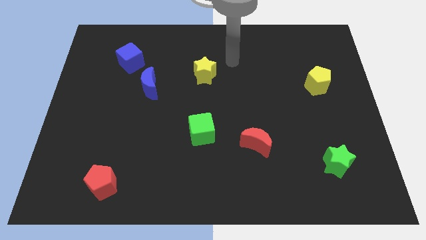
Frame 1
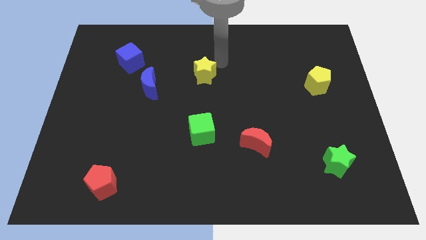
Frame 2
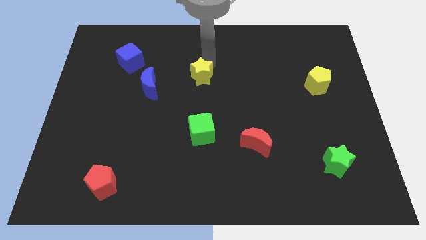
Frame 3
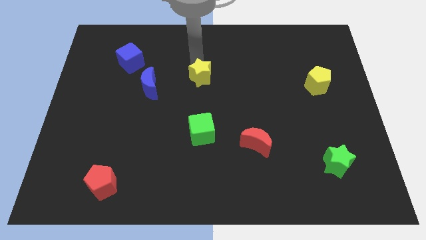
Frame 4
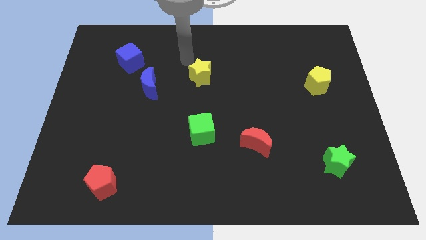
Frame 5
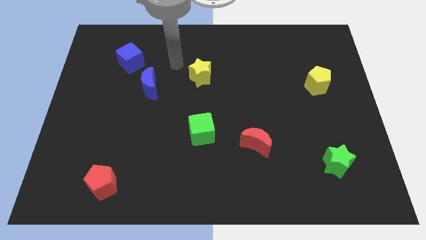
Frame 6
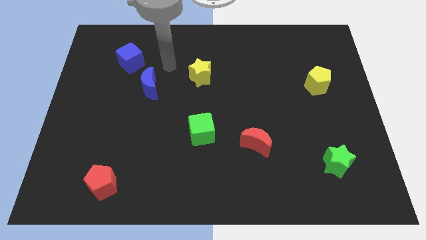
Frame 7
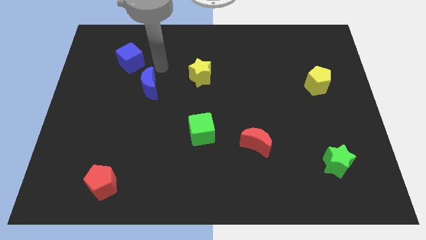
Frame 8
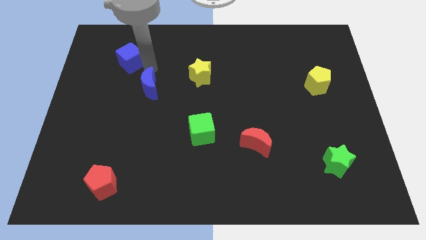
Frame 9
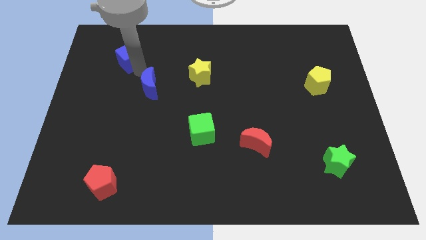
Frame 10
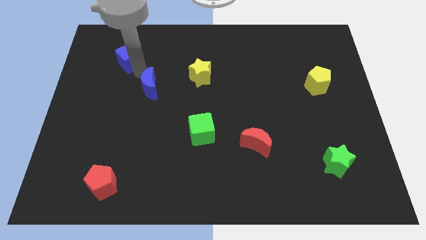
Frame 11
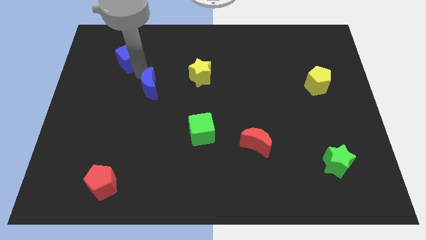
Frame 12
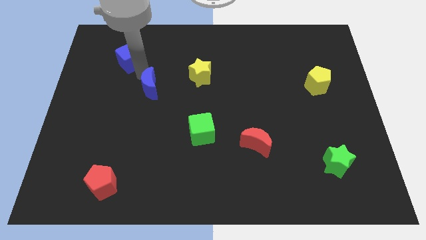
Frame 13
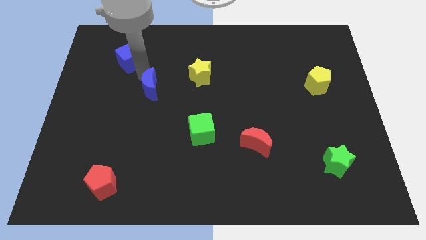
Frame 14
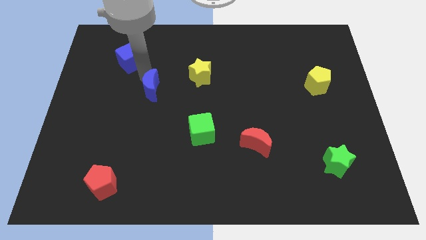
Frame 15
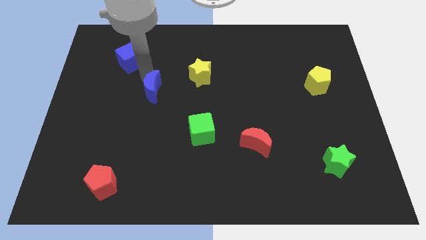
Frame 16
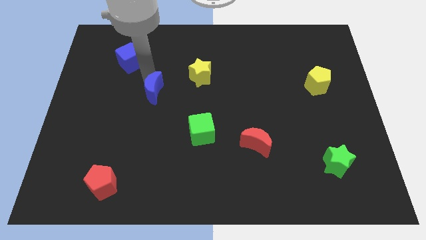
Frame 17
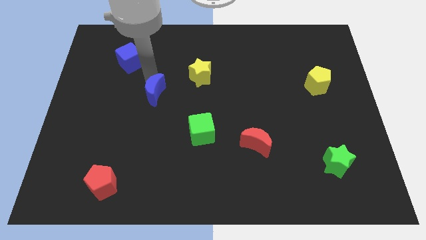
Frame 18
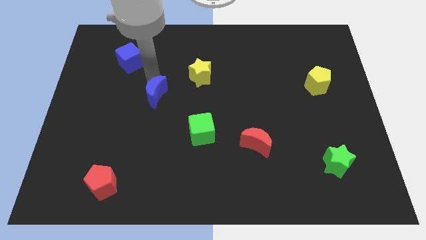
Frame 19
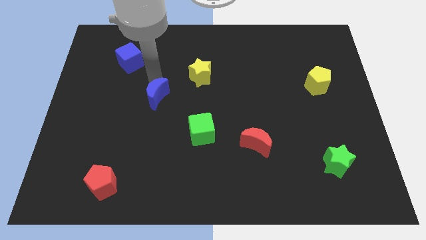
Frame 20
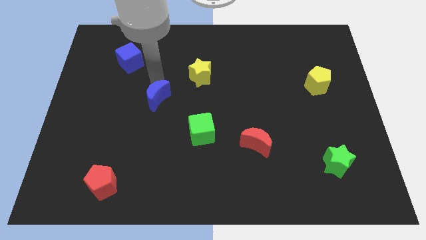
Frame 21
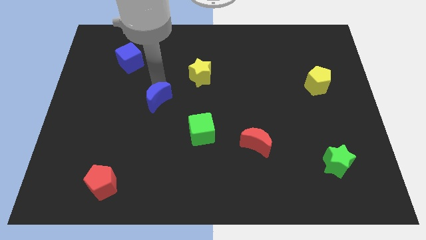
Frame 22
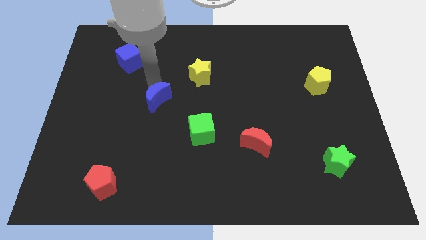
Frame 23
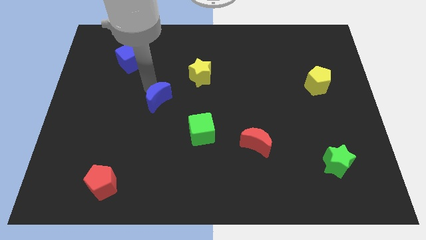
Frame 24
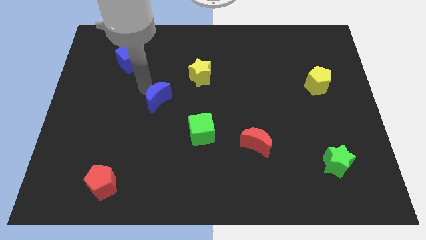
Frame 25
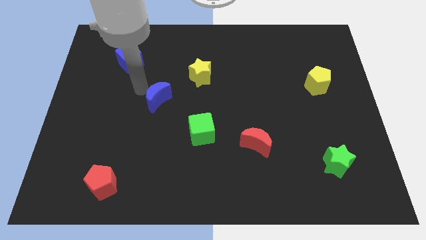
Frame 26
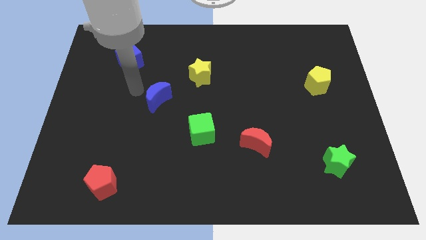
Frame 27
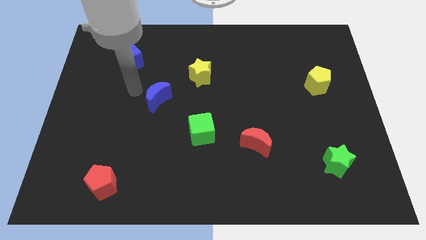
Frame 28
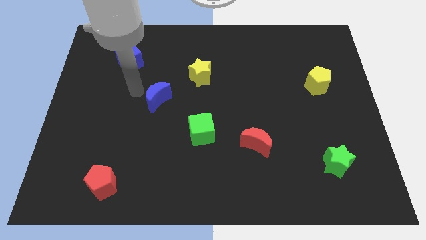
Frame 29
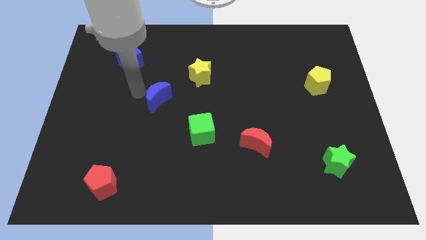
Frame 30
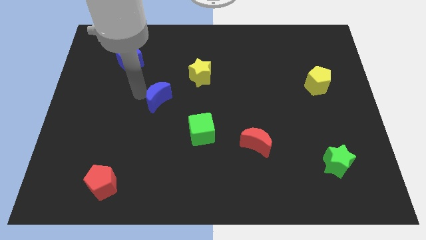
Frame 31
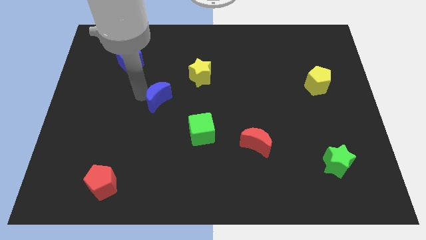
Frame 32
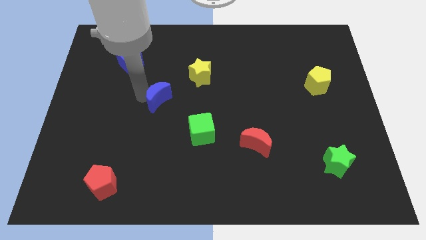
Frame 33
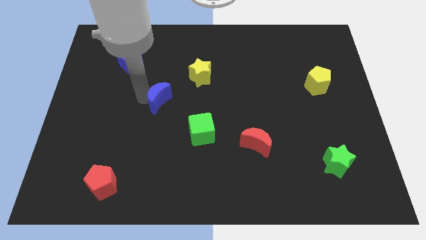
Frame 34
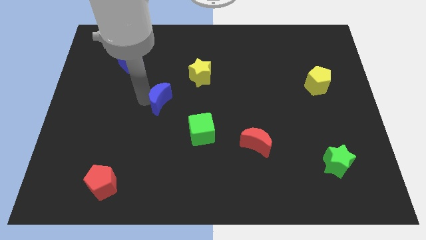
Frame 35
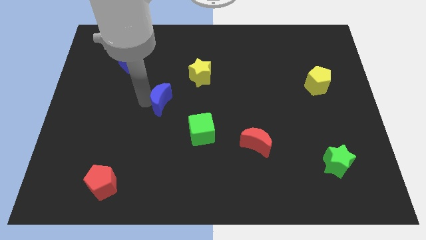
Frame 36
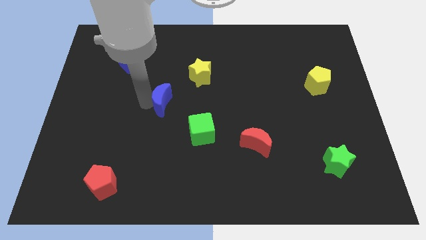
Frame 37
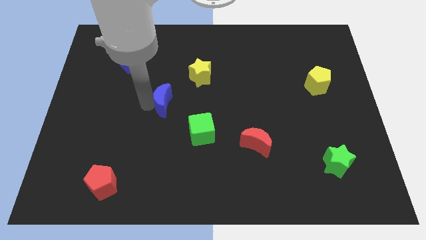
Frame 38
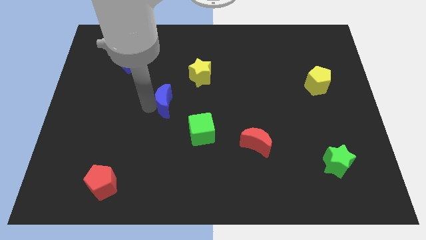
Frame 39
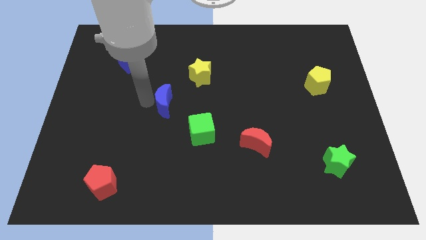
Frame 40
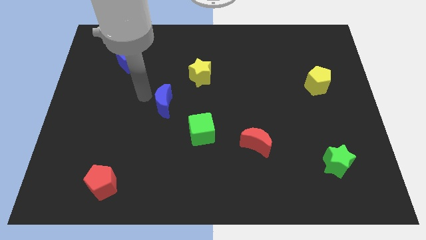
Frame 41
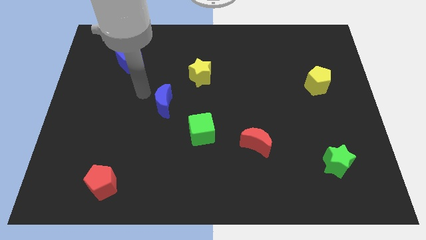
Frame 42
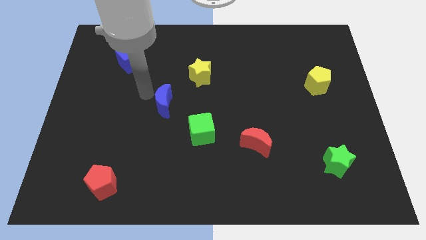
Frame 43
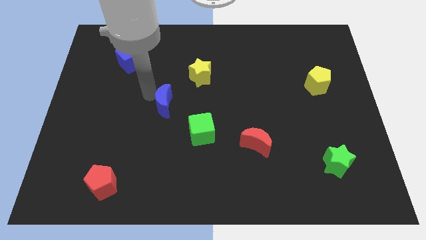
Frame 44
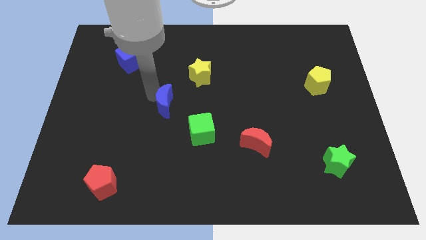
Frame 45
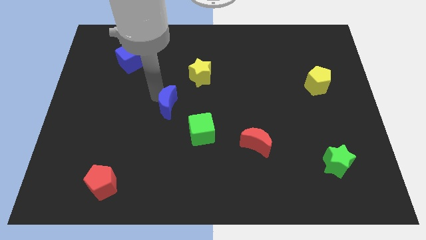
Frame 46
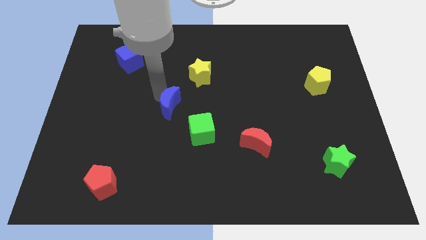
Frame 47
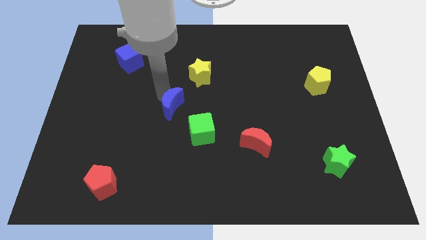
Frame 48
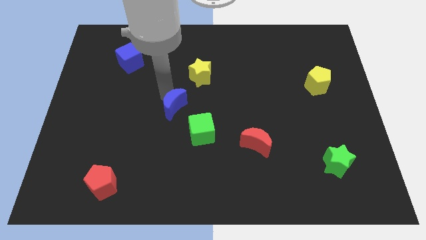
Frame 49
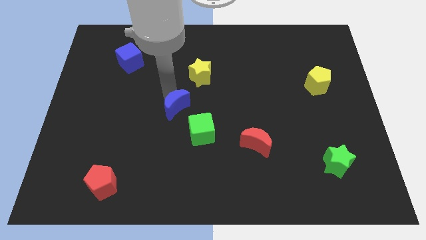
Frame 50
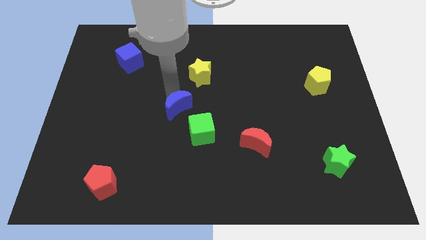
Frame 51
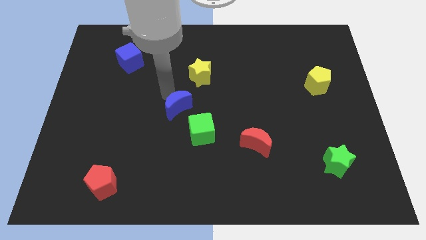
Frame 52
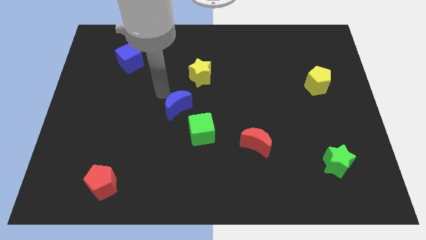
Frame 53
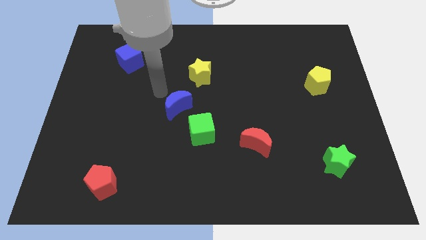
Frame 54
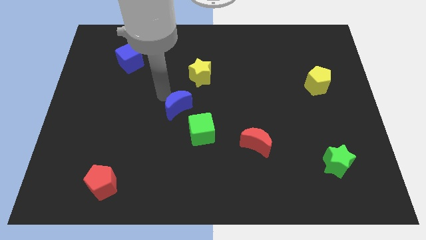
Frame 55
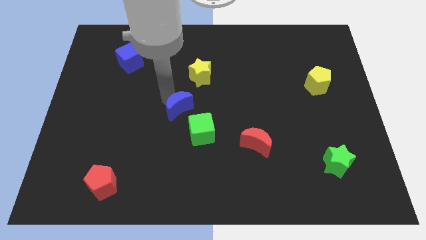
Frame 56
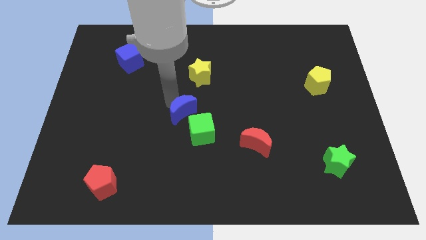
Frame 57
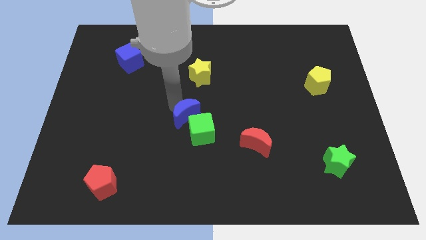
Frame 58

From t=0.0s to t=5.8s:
push the blue moon towards the green cube

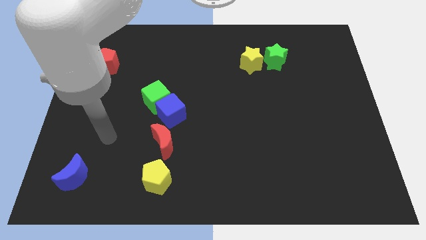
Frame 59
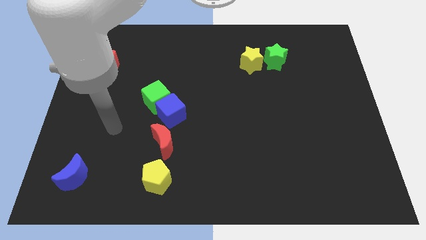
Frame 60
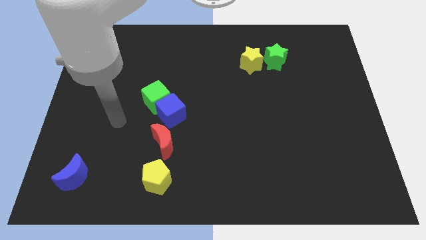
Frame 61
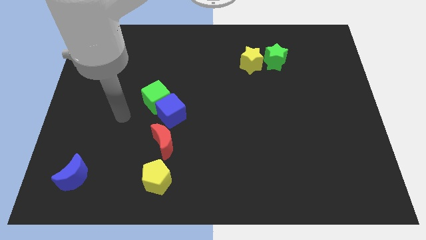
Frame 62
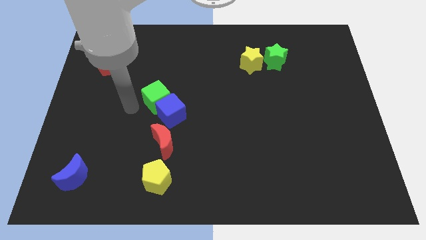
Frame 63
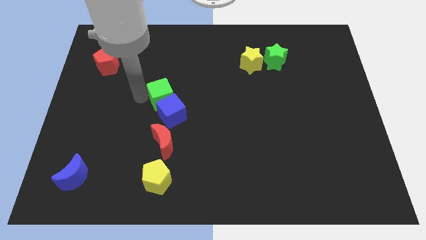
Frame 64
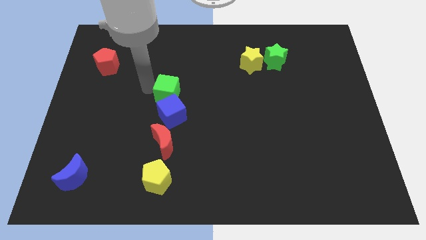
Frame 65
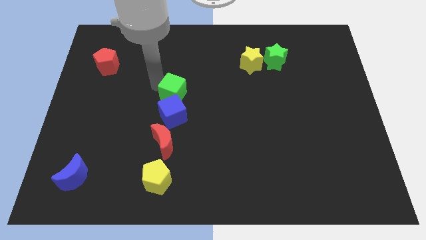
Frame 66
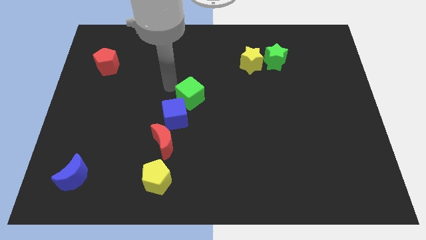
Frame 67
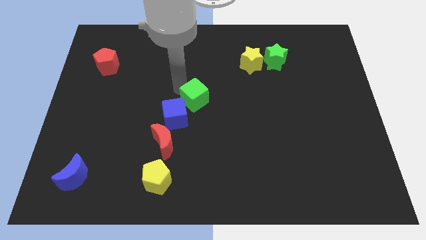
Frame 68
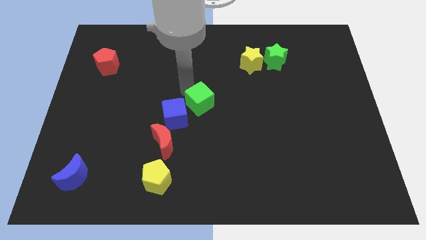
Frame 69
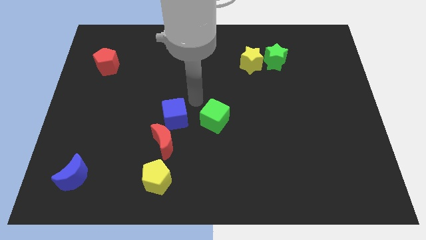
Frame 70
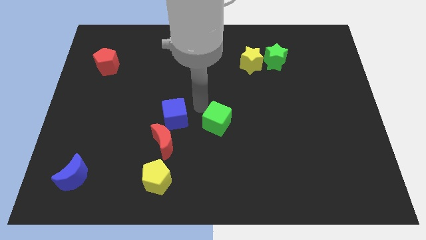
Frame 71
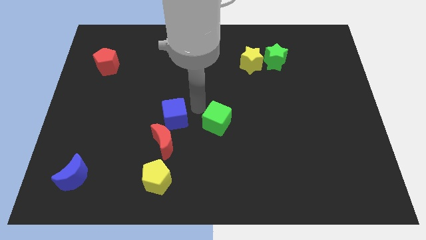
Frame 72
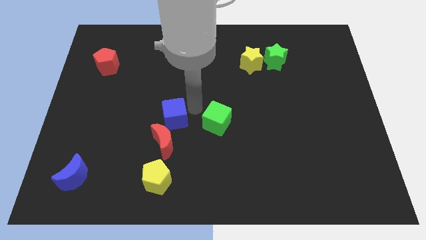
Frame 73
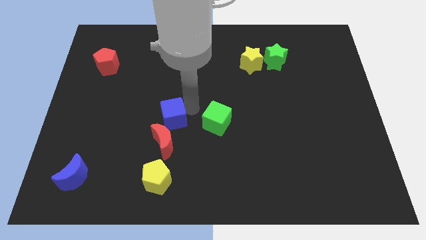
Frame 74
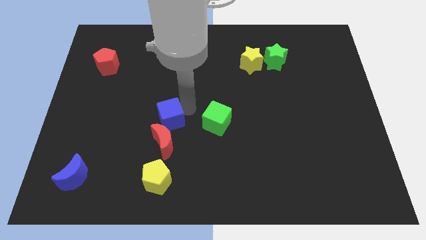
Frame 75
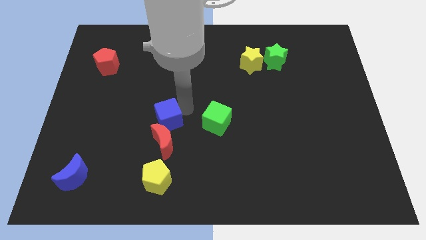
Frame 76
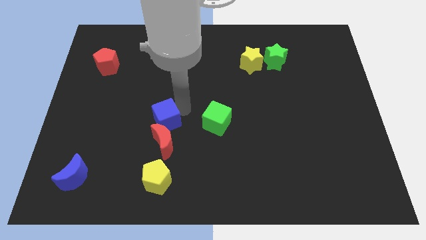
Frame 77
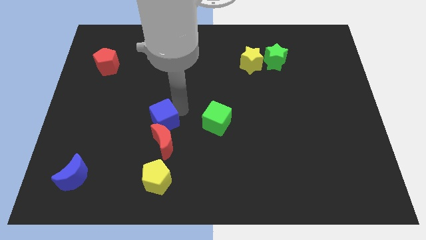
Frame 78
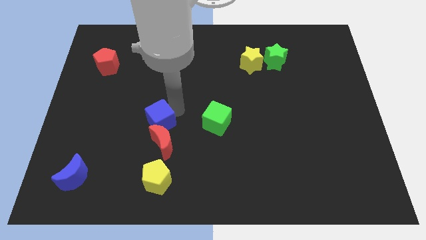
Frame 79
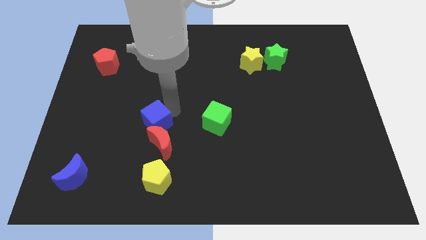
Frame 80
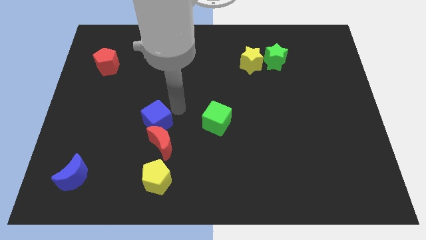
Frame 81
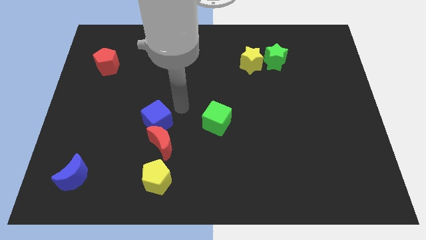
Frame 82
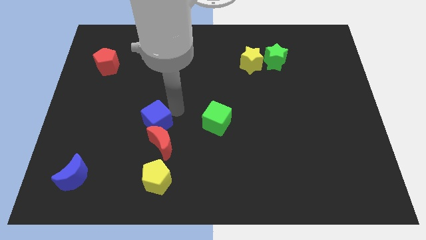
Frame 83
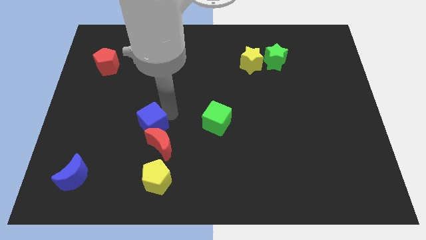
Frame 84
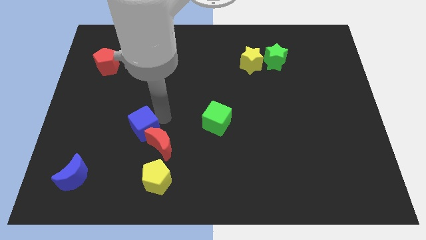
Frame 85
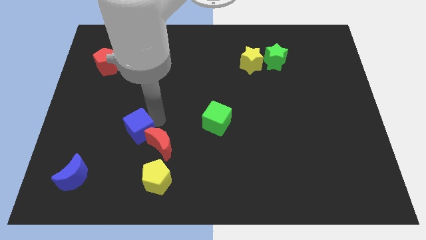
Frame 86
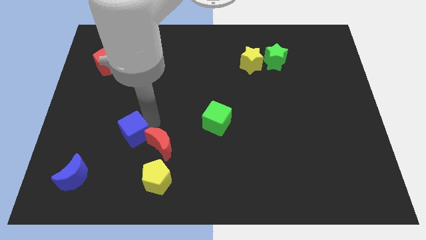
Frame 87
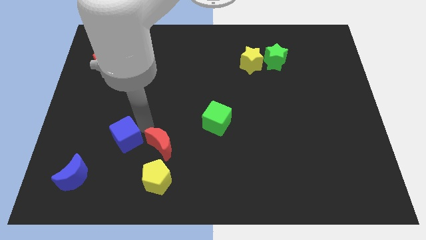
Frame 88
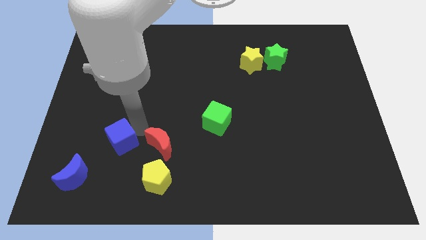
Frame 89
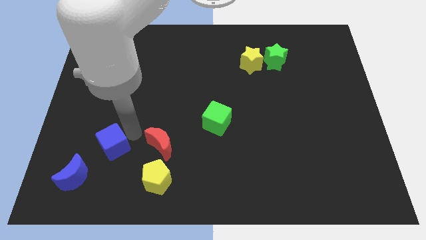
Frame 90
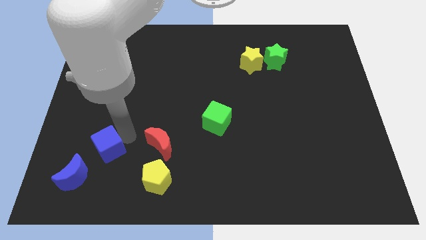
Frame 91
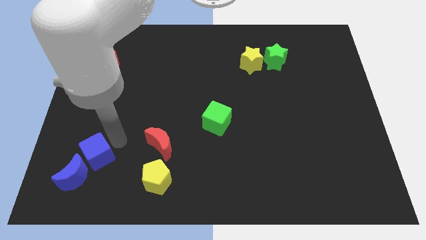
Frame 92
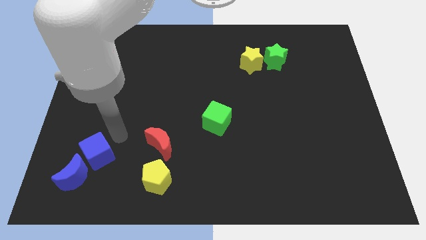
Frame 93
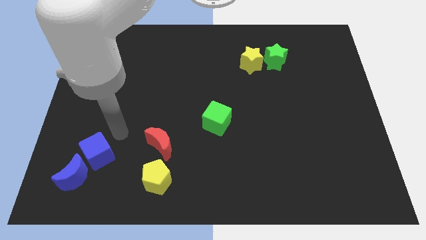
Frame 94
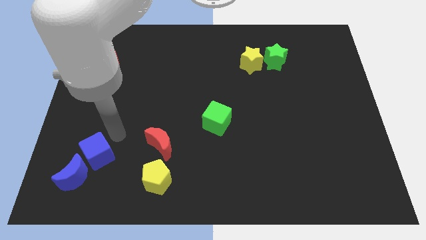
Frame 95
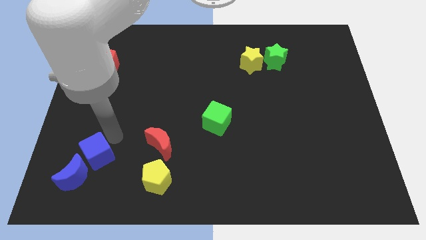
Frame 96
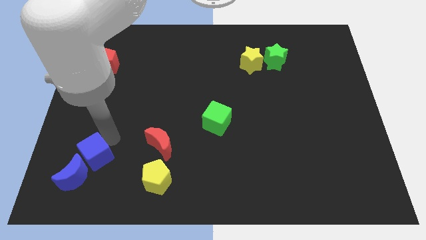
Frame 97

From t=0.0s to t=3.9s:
put the blue cube towards the blue moon
